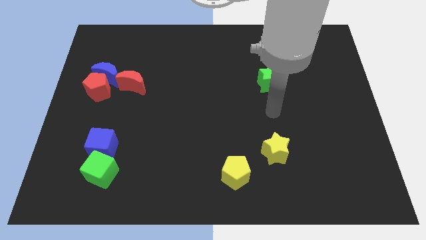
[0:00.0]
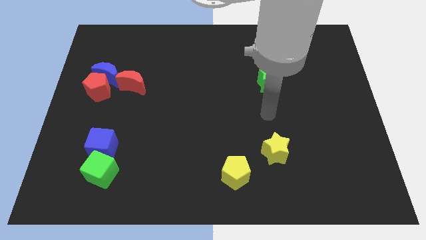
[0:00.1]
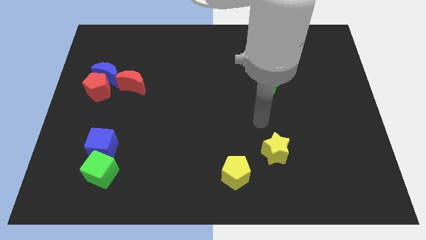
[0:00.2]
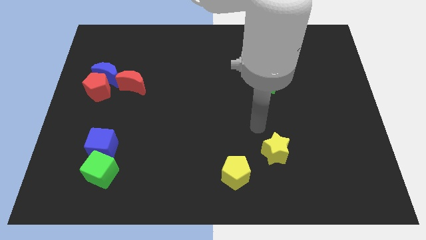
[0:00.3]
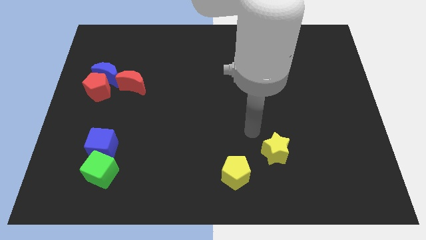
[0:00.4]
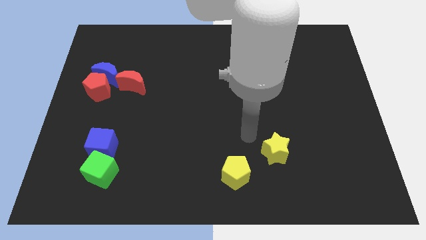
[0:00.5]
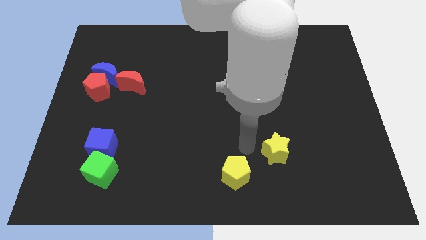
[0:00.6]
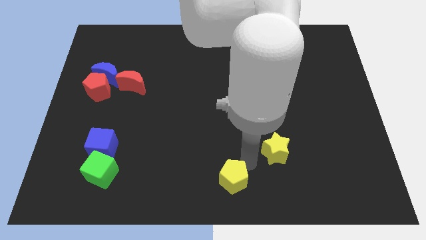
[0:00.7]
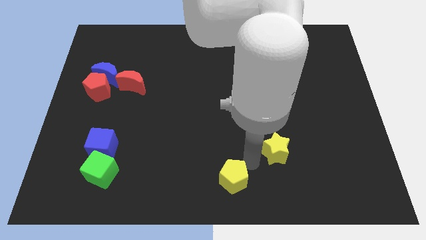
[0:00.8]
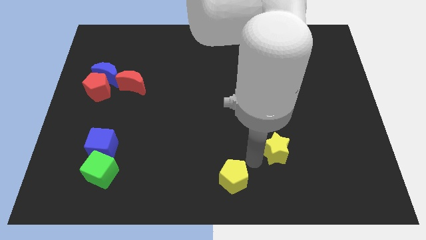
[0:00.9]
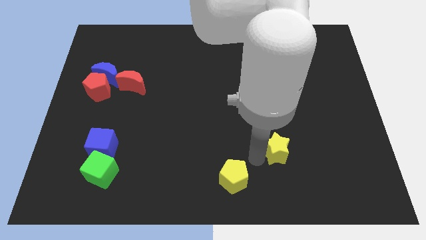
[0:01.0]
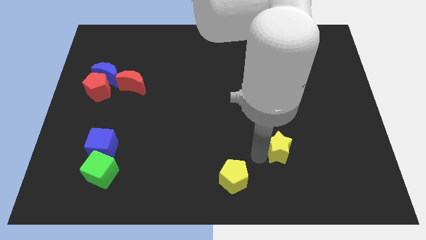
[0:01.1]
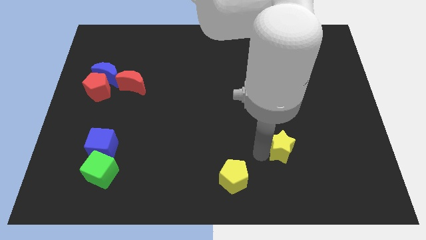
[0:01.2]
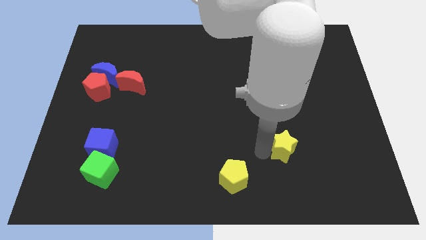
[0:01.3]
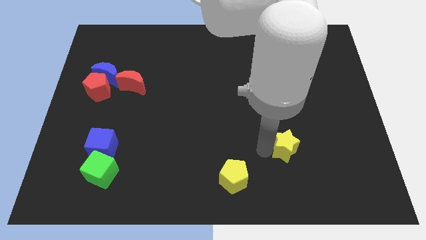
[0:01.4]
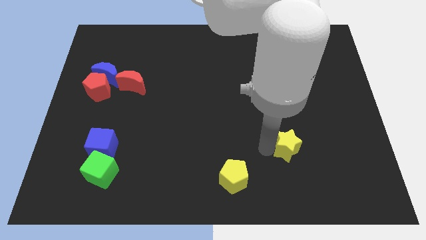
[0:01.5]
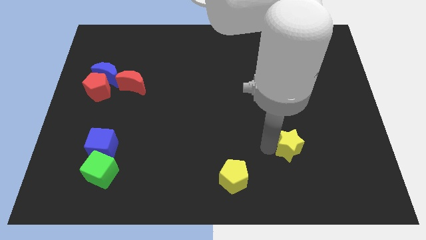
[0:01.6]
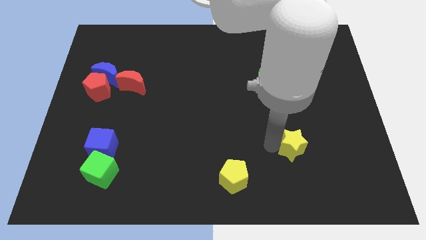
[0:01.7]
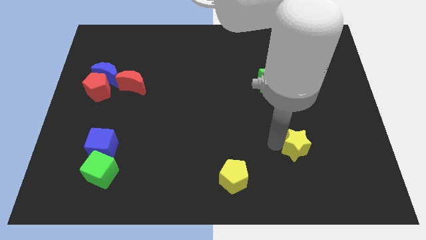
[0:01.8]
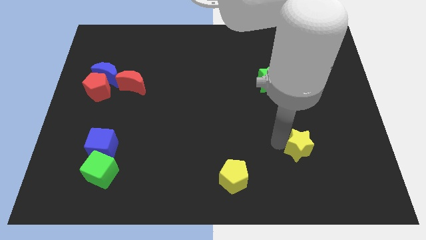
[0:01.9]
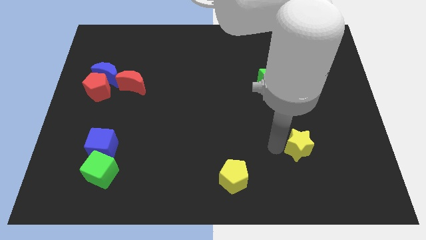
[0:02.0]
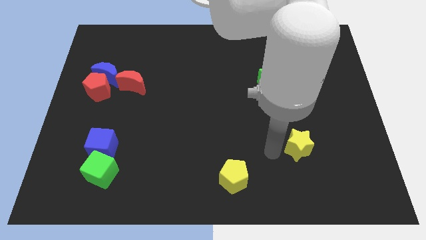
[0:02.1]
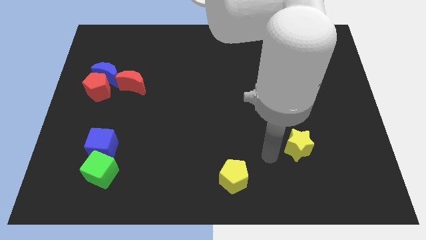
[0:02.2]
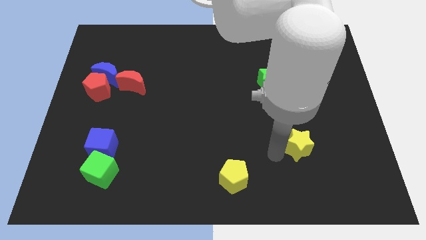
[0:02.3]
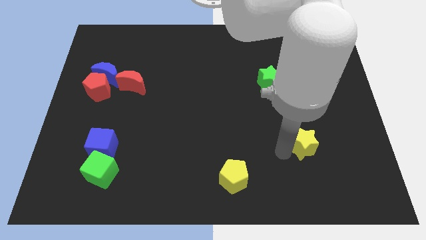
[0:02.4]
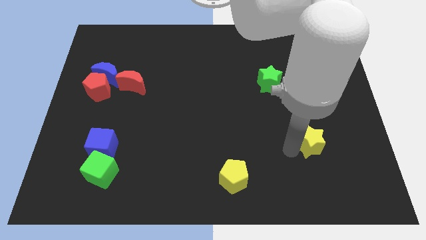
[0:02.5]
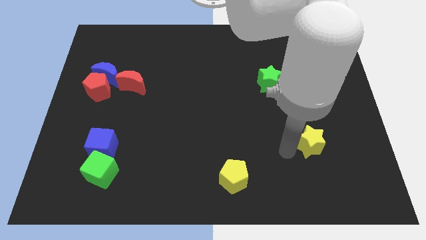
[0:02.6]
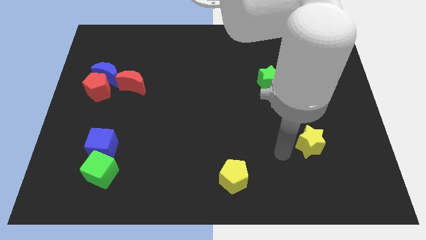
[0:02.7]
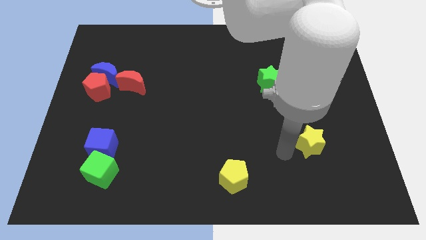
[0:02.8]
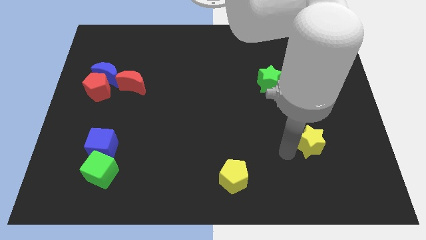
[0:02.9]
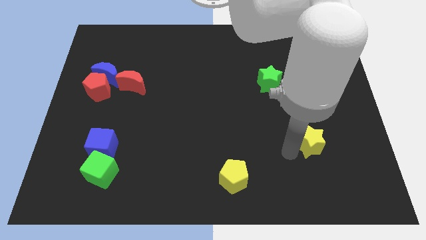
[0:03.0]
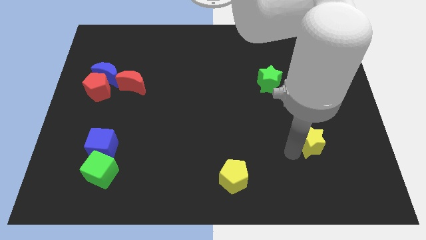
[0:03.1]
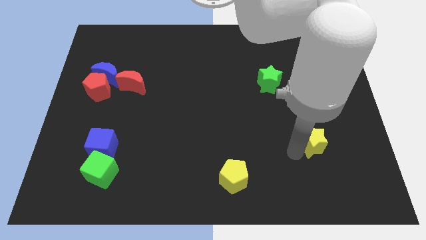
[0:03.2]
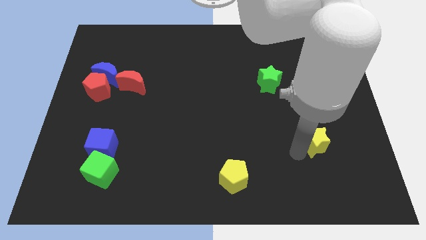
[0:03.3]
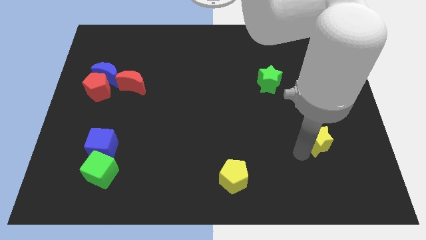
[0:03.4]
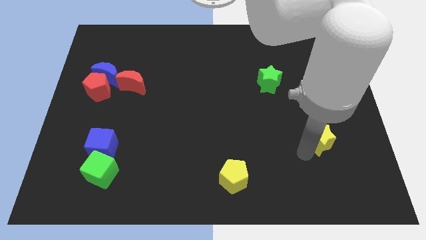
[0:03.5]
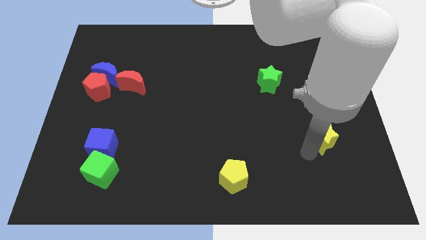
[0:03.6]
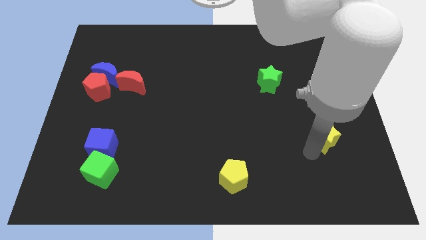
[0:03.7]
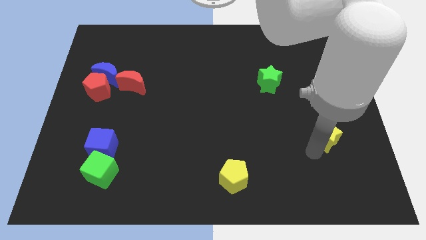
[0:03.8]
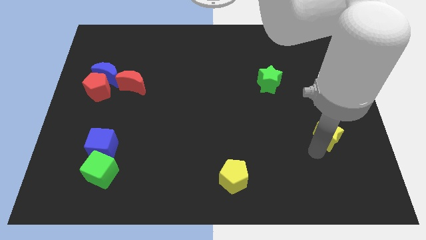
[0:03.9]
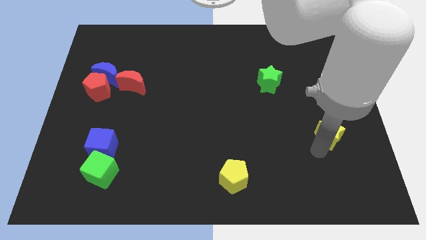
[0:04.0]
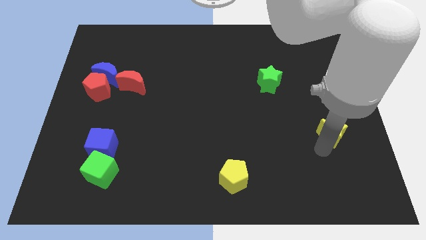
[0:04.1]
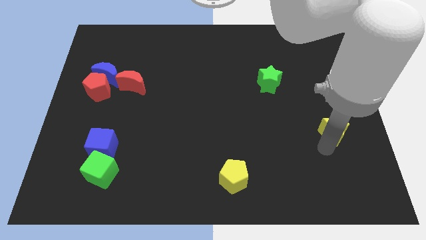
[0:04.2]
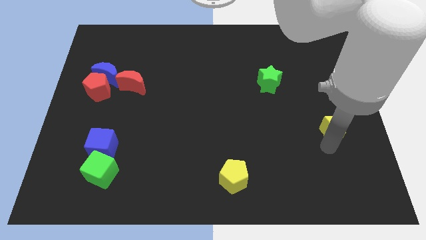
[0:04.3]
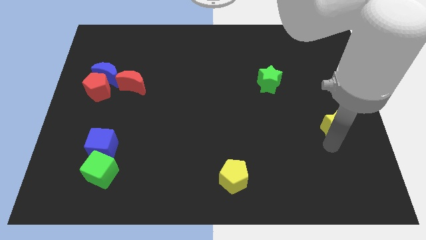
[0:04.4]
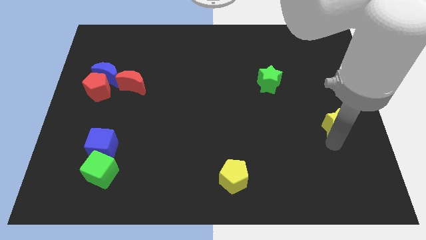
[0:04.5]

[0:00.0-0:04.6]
push the yellow star to the right side

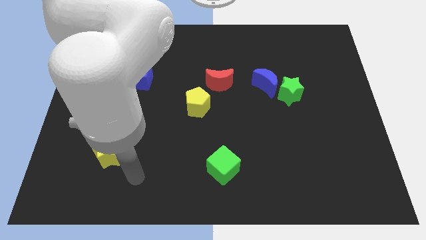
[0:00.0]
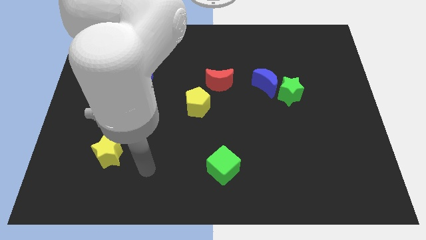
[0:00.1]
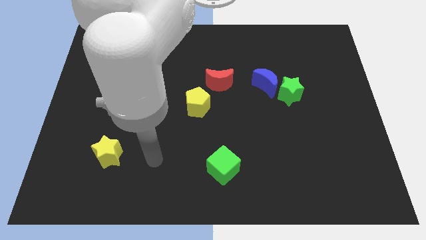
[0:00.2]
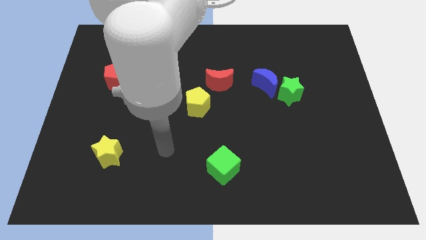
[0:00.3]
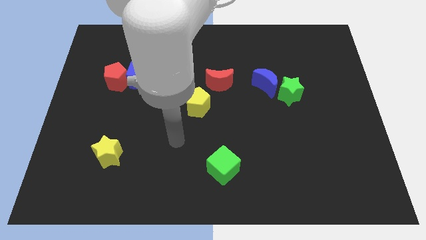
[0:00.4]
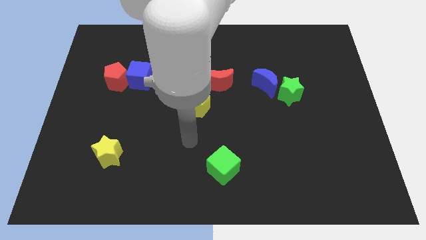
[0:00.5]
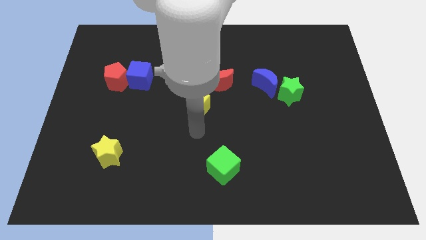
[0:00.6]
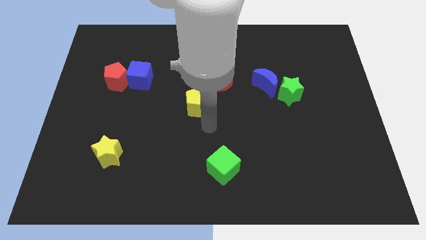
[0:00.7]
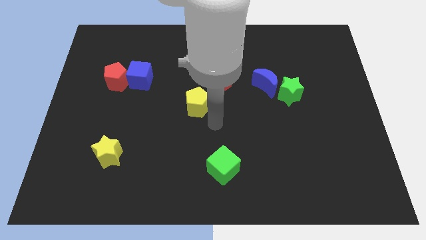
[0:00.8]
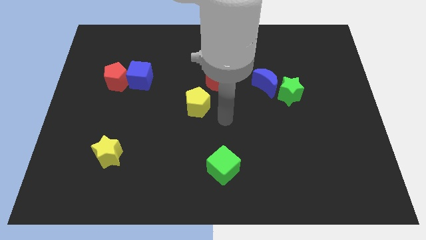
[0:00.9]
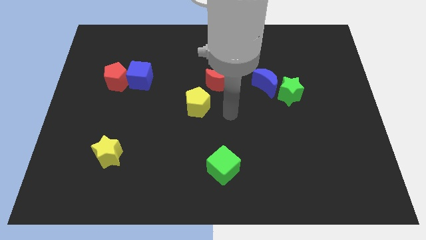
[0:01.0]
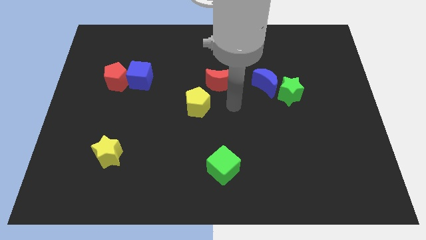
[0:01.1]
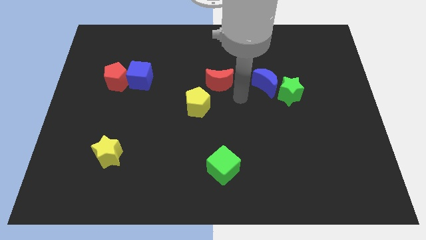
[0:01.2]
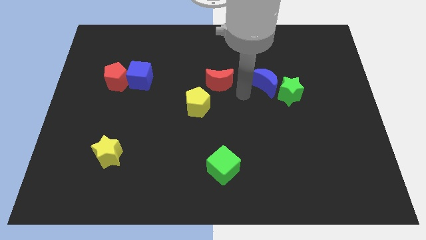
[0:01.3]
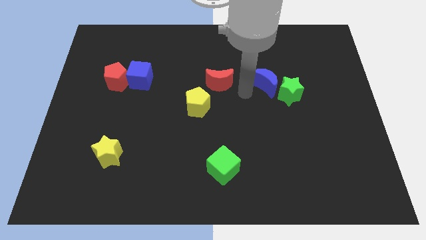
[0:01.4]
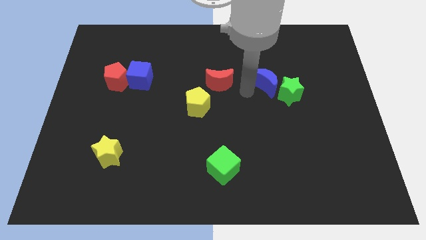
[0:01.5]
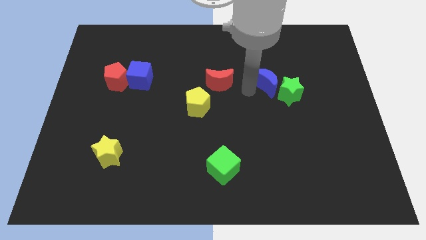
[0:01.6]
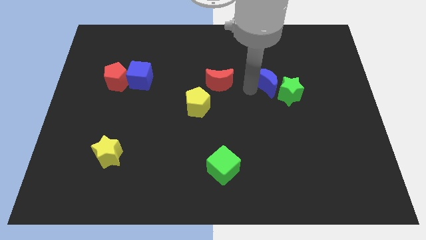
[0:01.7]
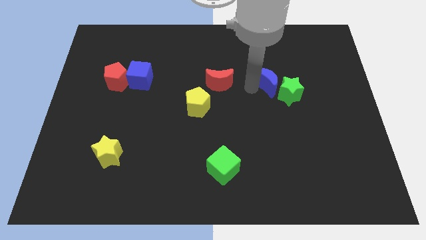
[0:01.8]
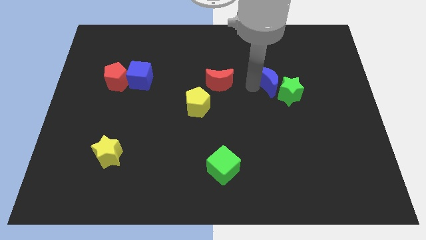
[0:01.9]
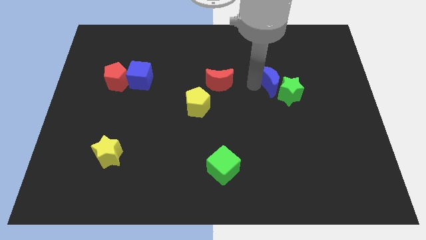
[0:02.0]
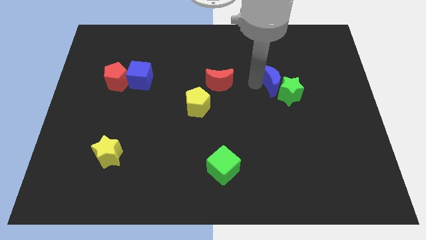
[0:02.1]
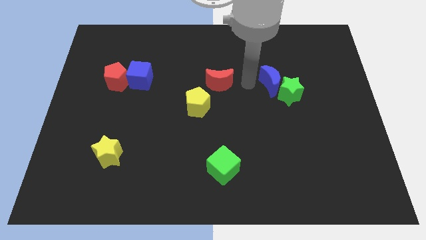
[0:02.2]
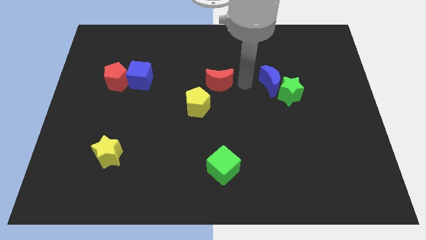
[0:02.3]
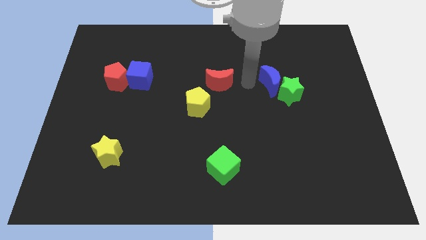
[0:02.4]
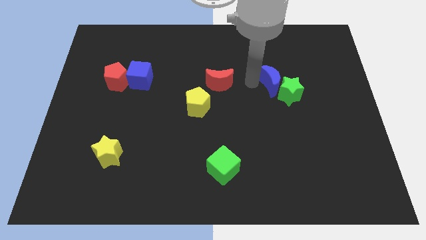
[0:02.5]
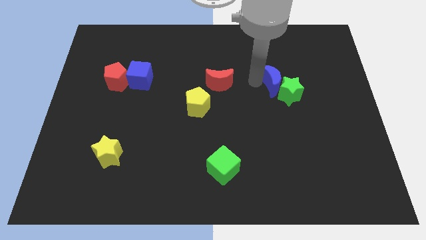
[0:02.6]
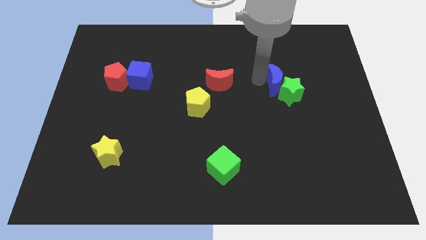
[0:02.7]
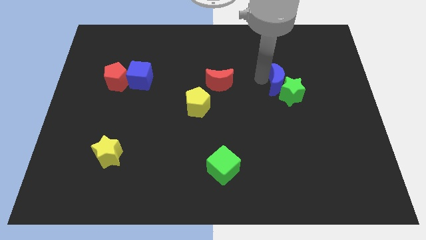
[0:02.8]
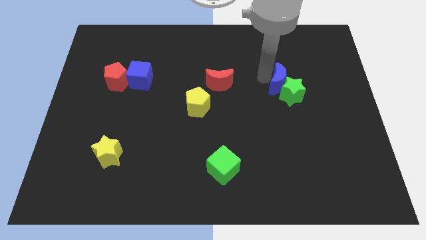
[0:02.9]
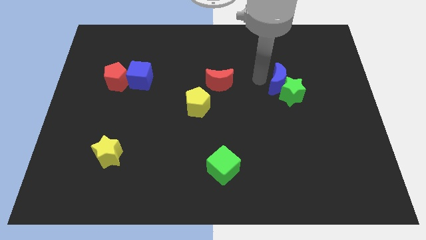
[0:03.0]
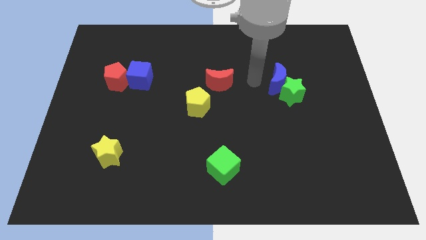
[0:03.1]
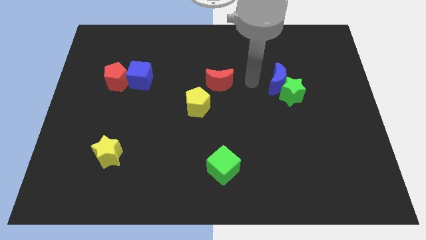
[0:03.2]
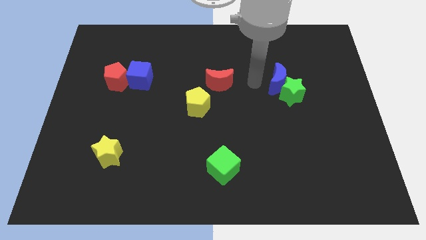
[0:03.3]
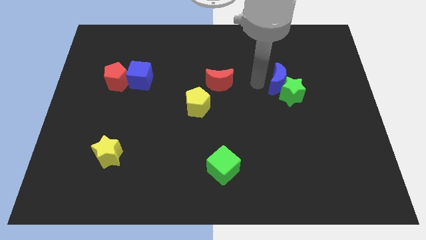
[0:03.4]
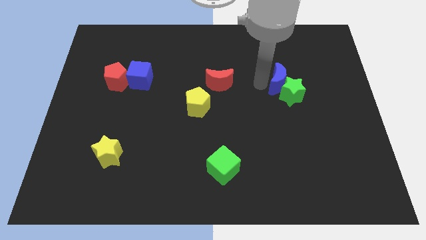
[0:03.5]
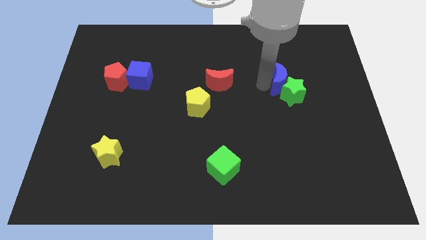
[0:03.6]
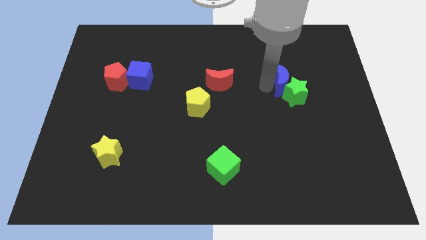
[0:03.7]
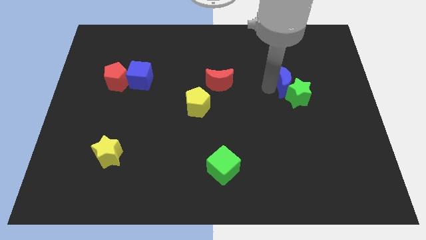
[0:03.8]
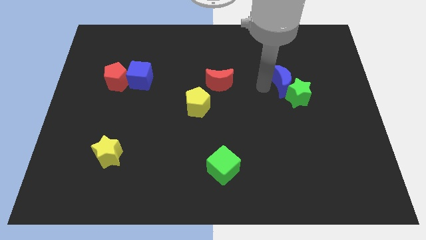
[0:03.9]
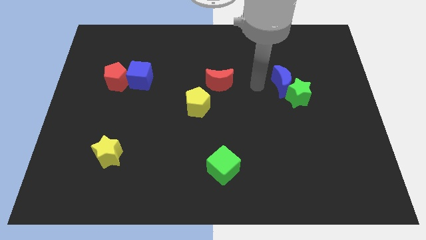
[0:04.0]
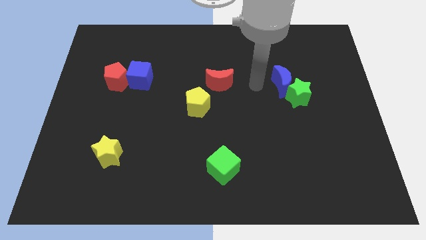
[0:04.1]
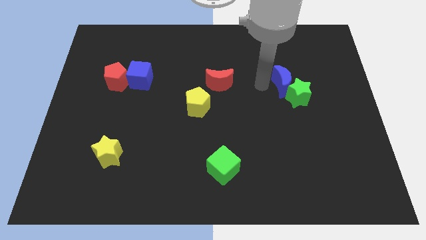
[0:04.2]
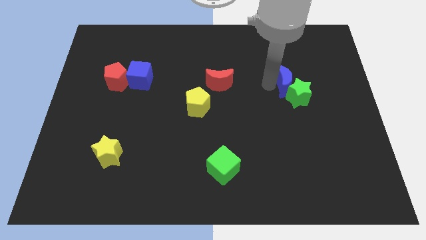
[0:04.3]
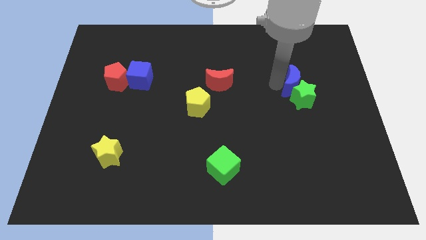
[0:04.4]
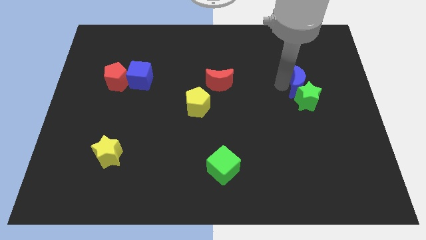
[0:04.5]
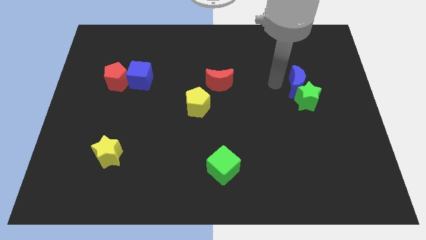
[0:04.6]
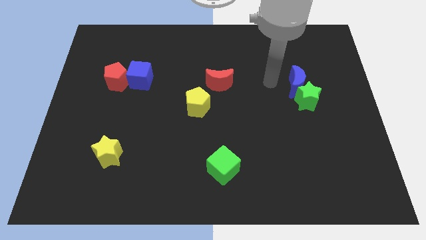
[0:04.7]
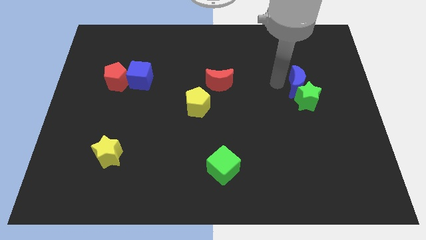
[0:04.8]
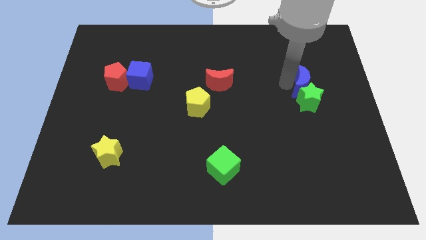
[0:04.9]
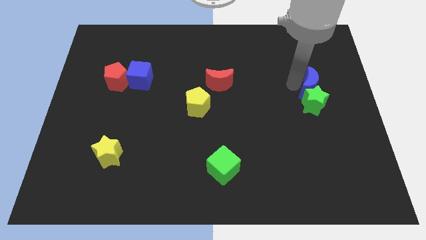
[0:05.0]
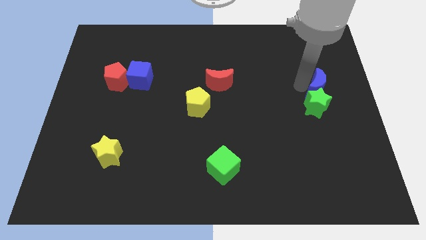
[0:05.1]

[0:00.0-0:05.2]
slide the blue moon to the center right
